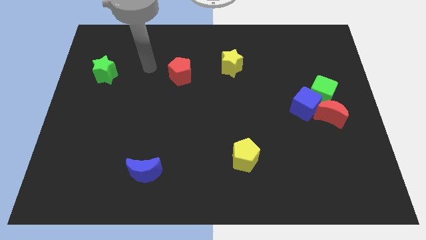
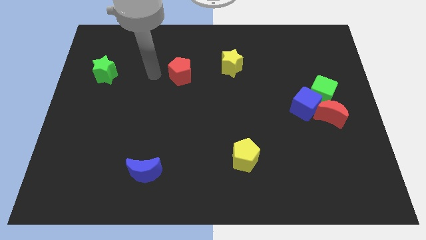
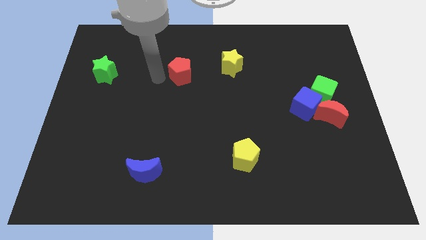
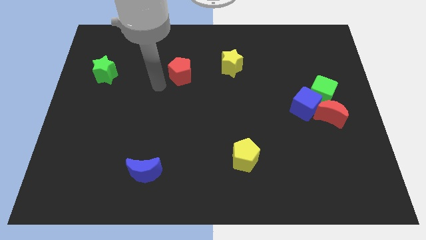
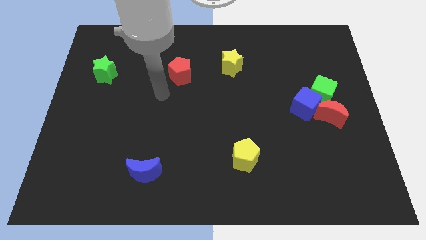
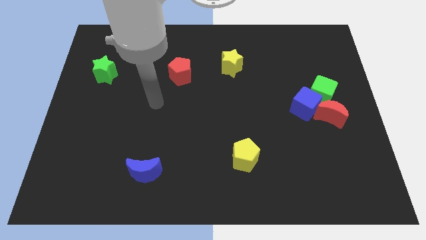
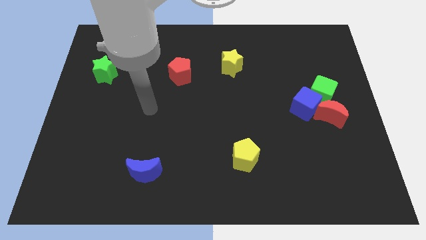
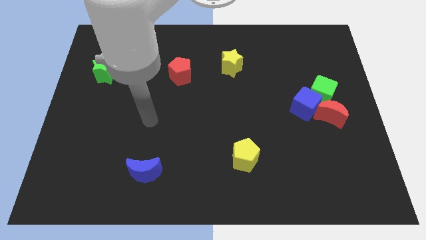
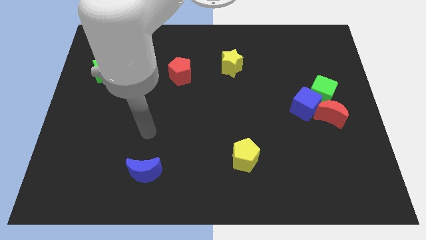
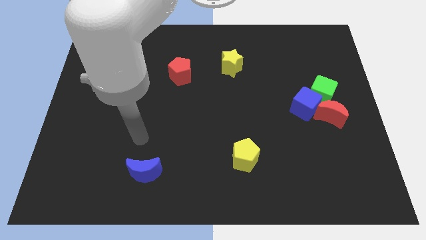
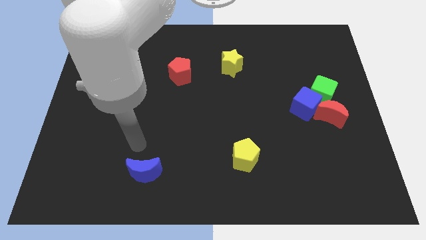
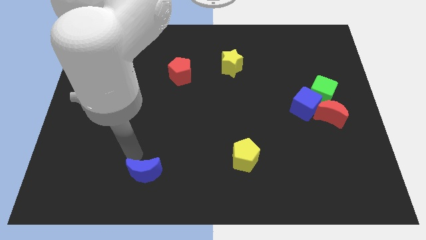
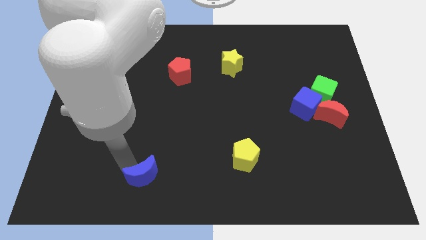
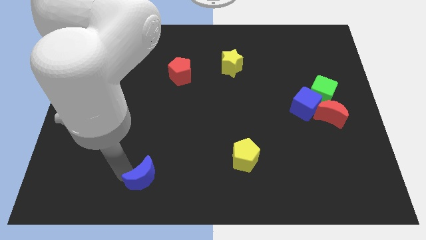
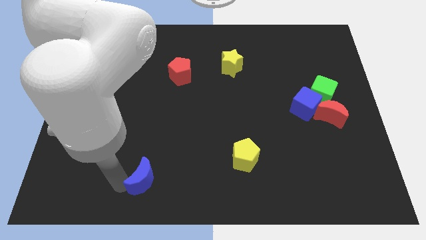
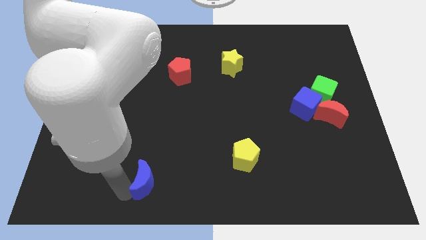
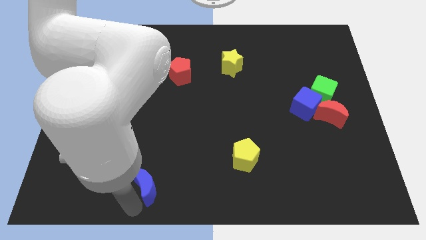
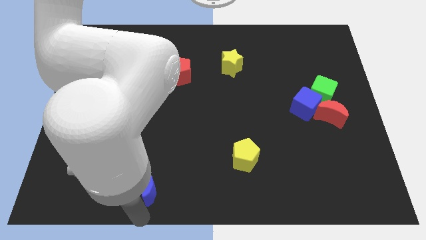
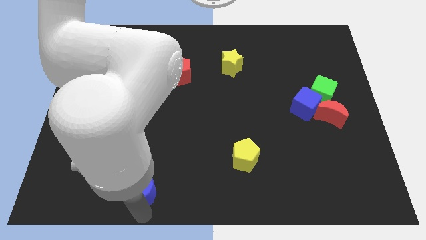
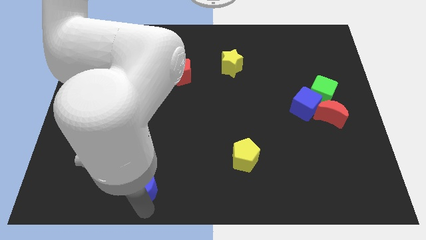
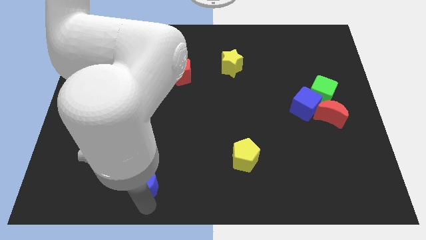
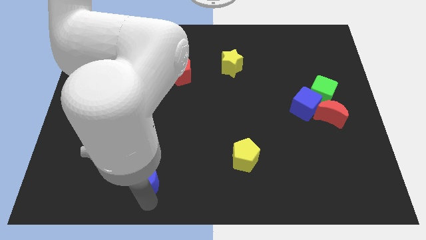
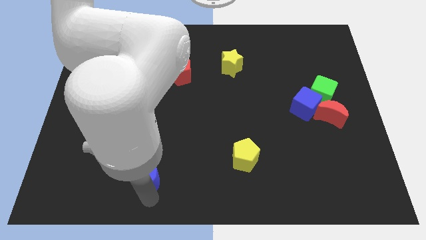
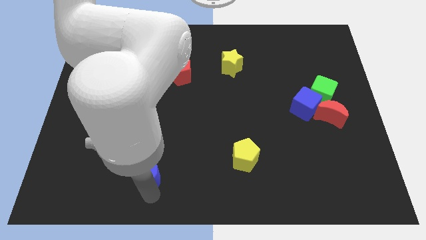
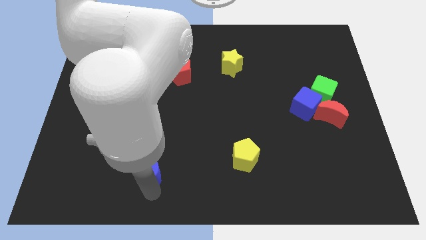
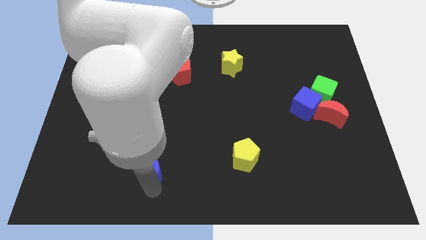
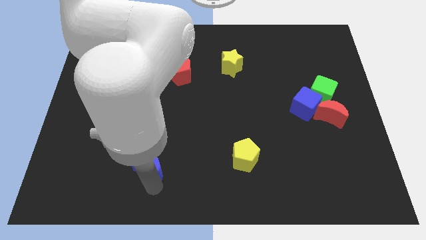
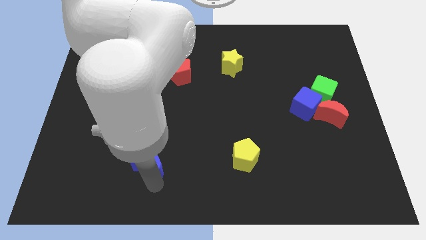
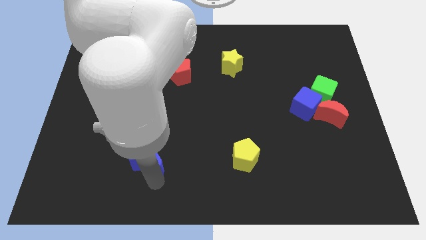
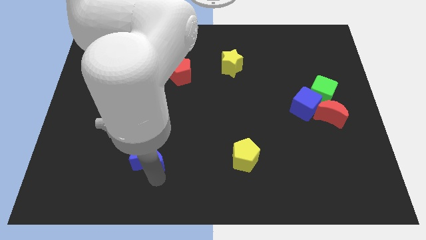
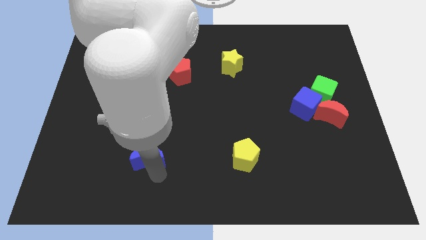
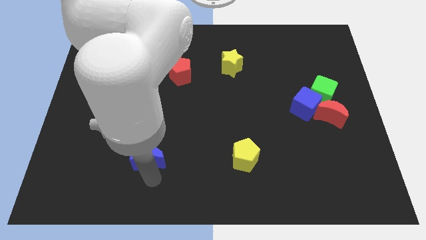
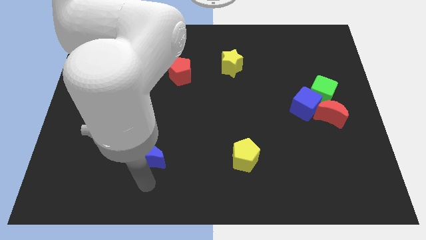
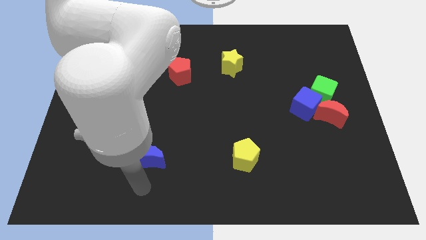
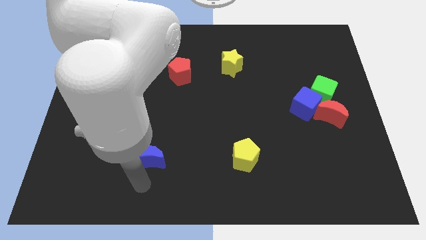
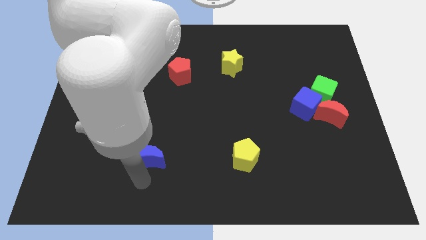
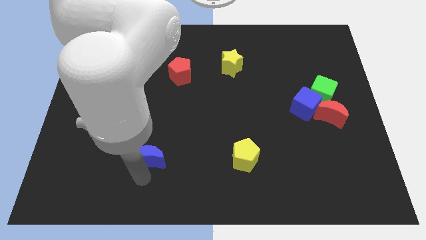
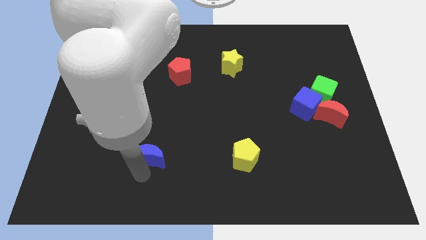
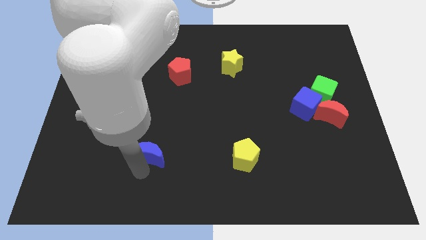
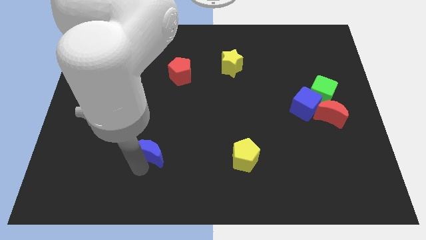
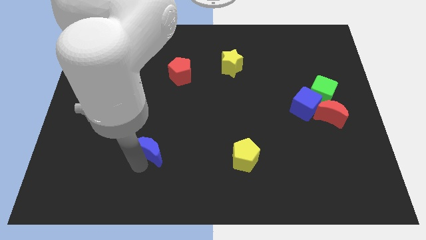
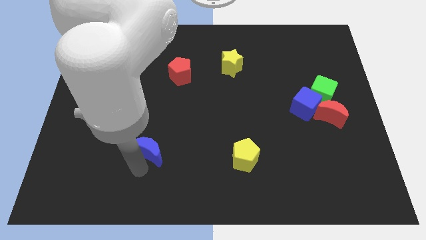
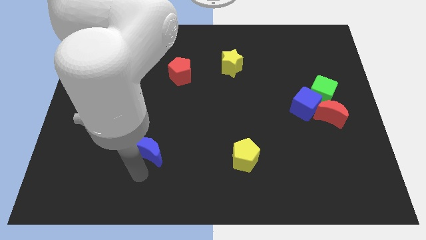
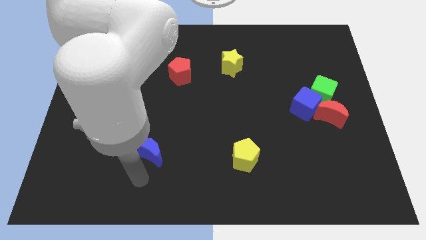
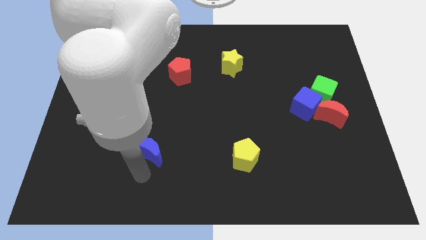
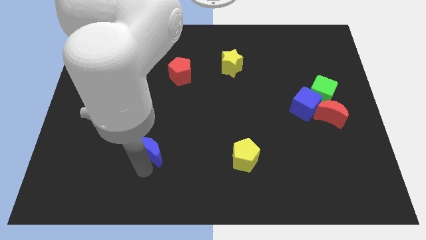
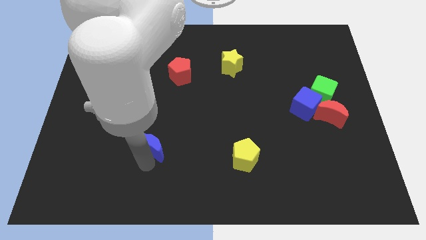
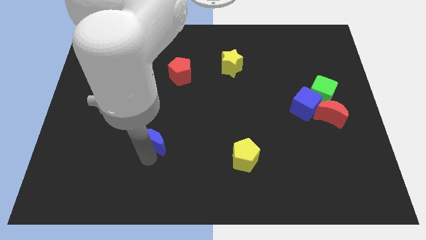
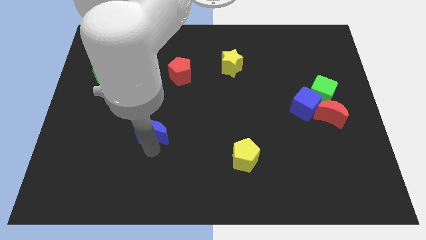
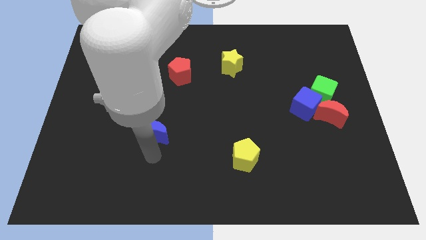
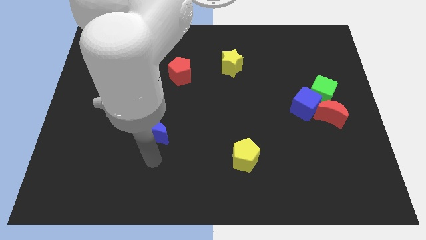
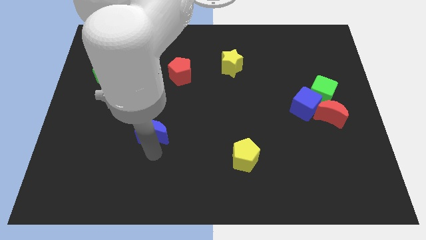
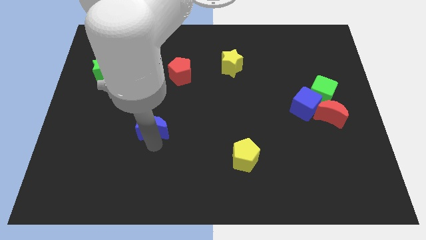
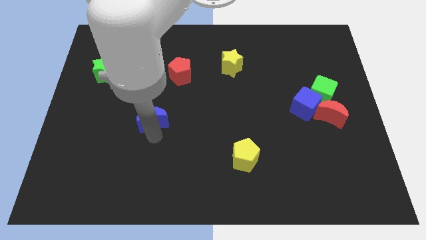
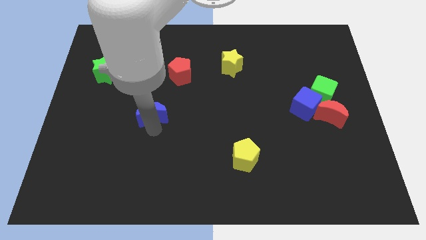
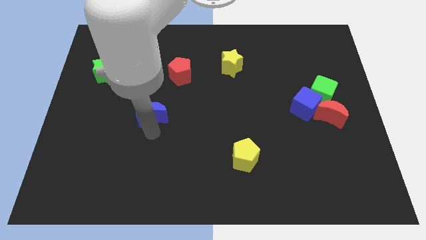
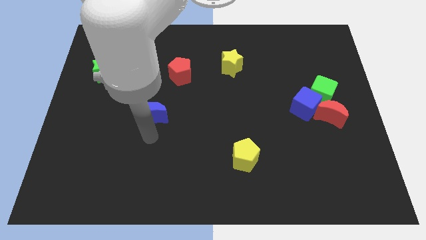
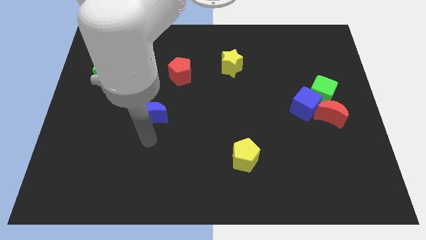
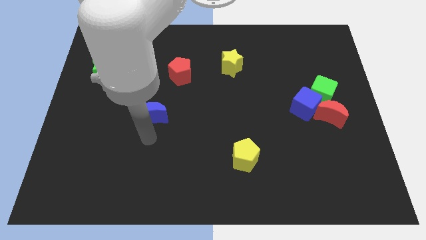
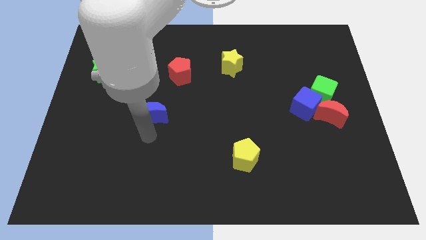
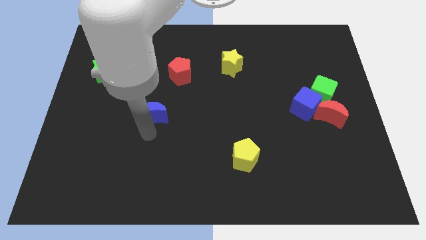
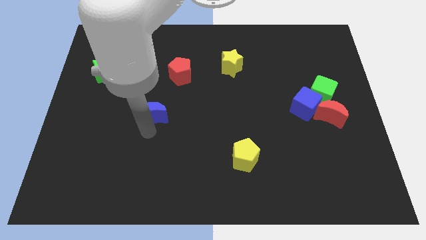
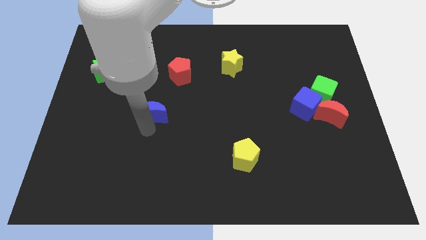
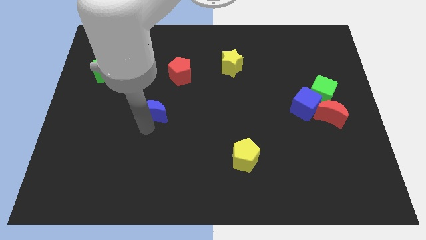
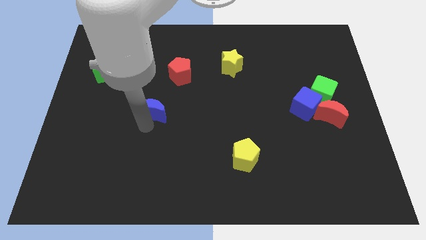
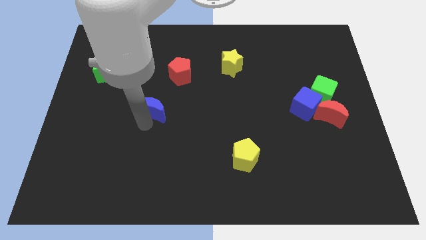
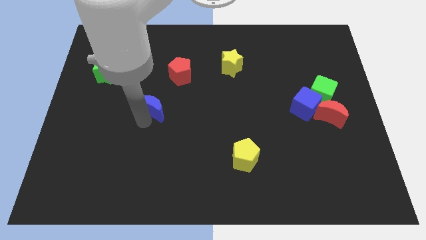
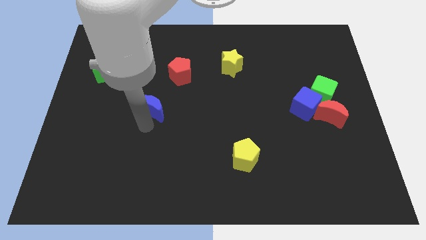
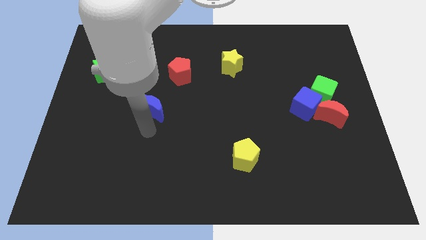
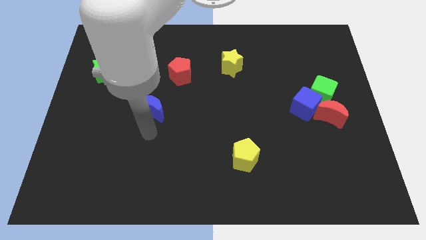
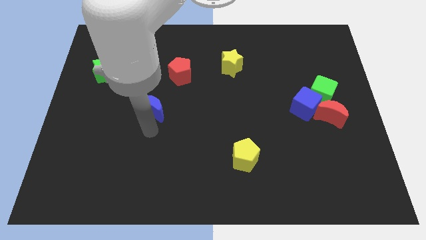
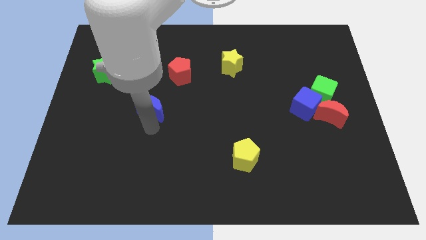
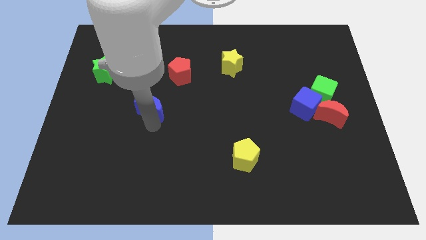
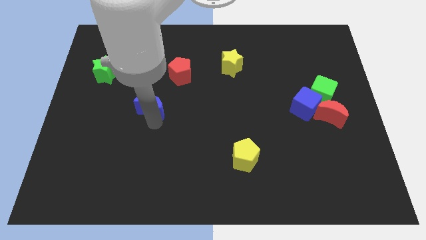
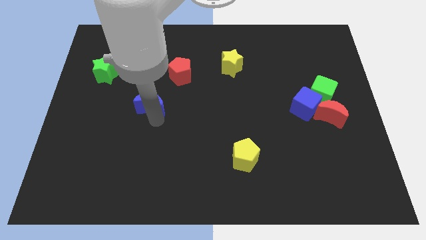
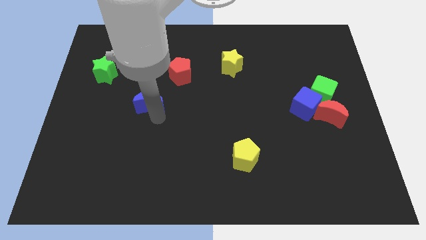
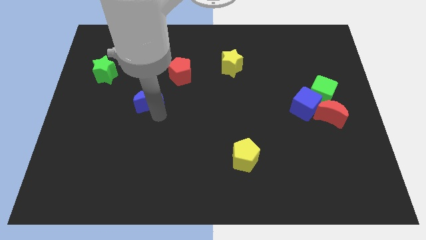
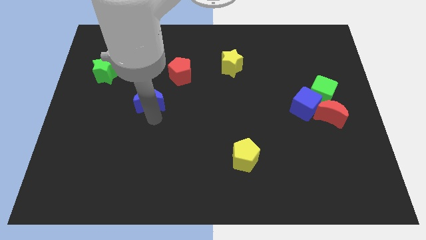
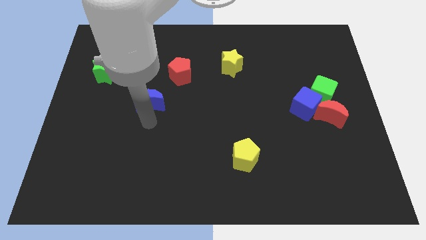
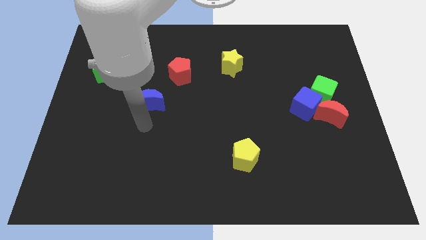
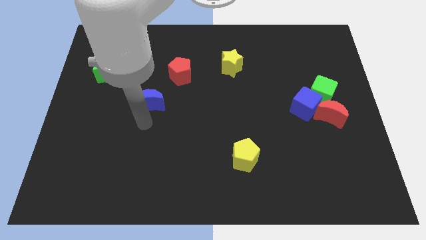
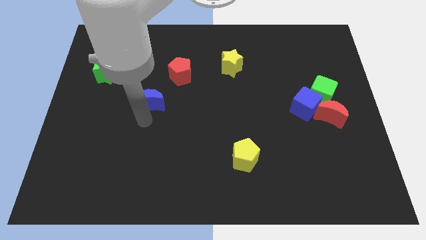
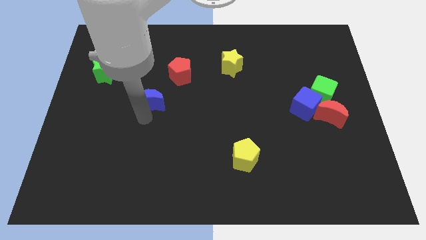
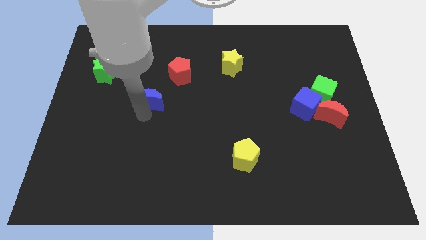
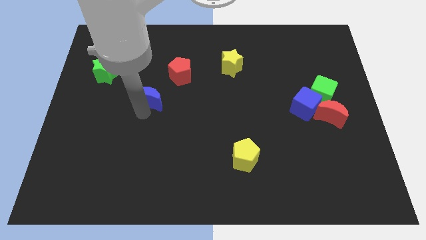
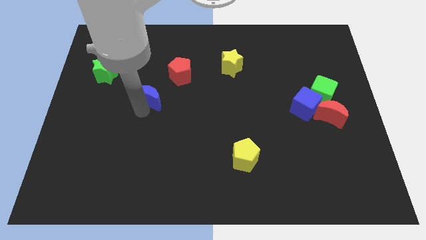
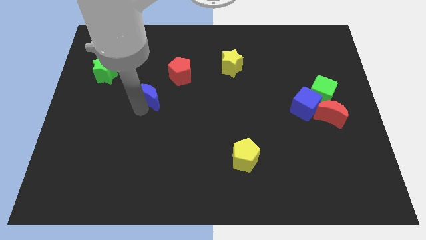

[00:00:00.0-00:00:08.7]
move the blue moon upwards
